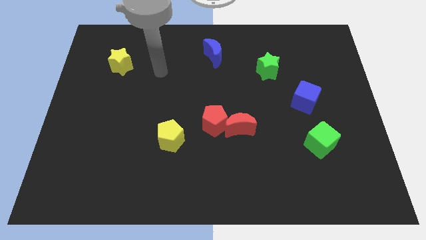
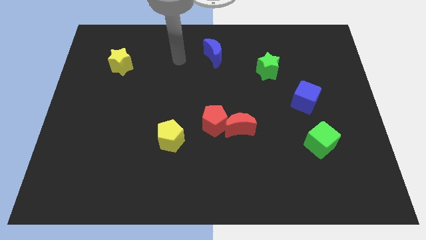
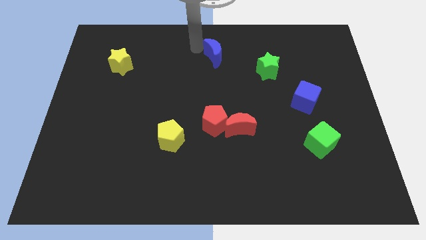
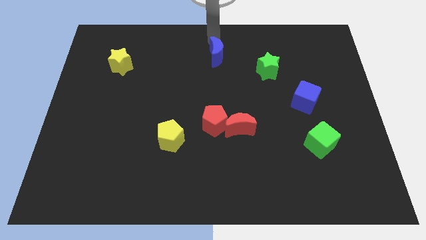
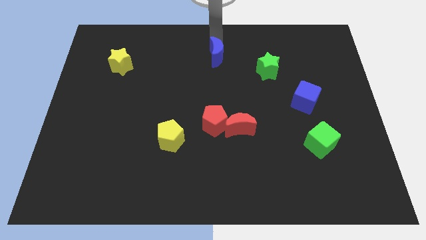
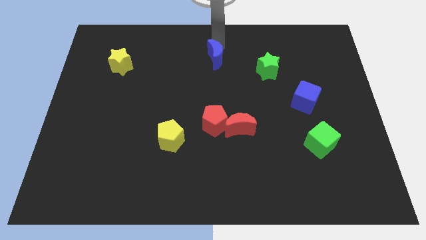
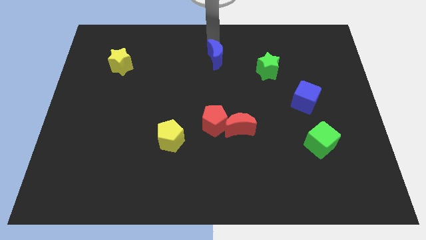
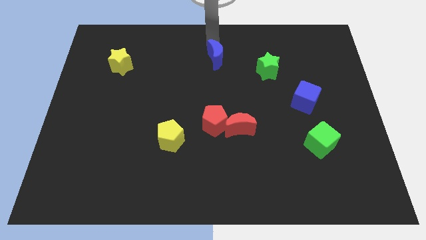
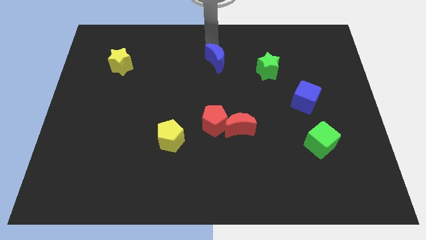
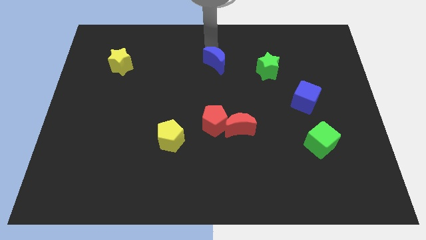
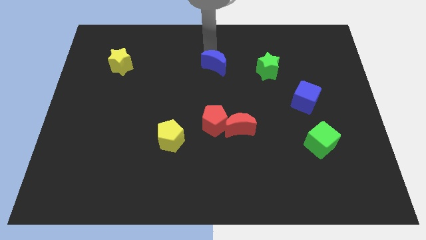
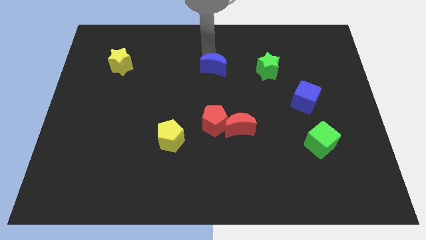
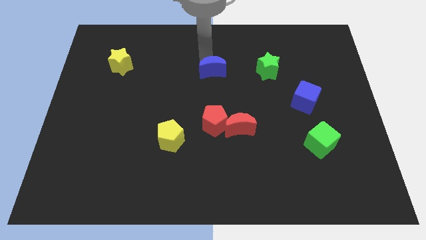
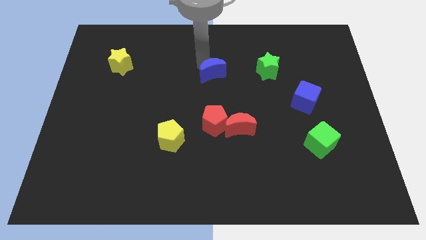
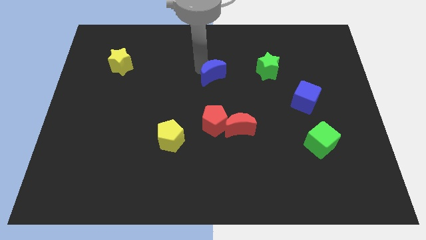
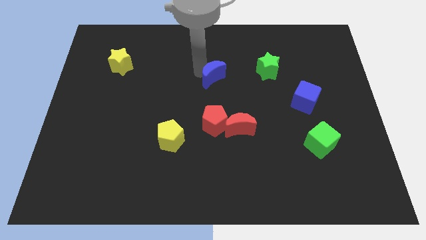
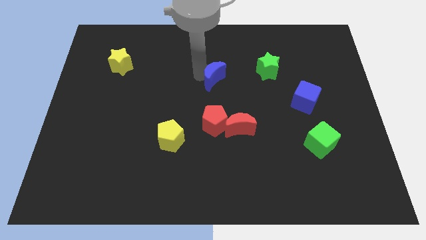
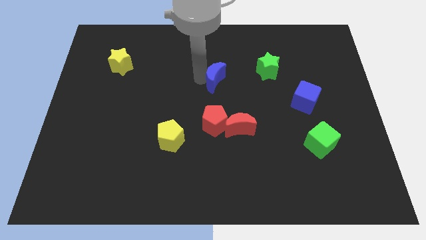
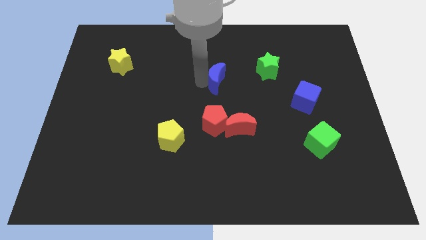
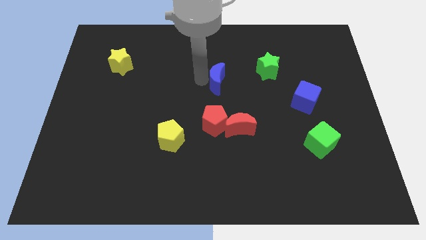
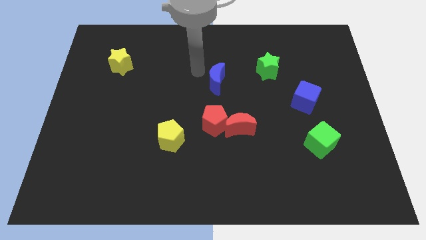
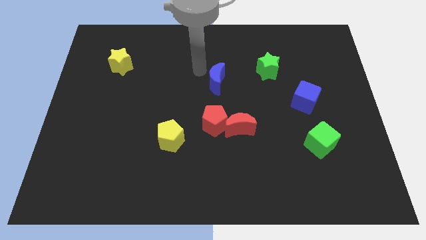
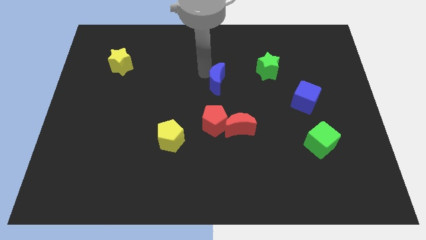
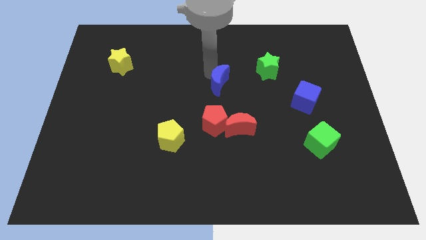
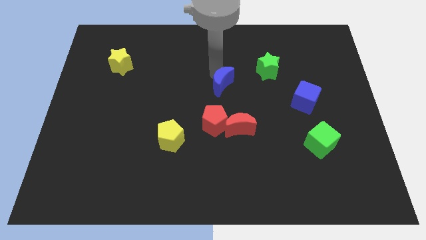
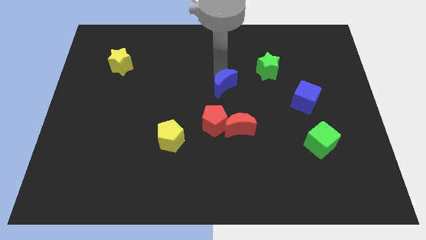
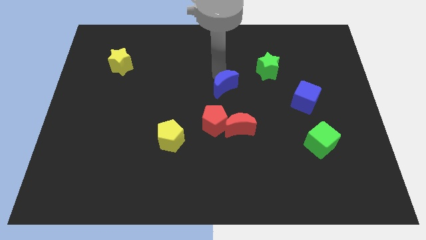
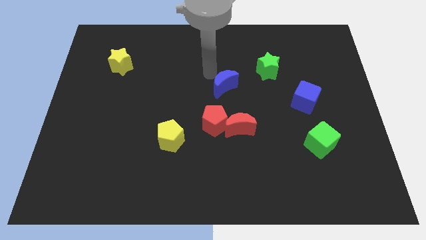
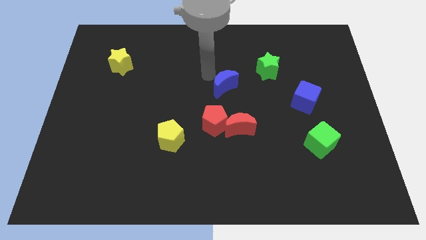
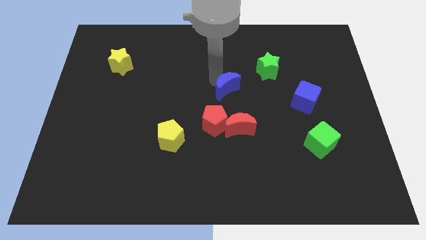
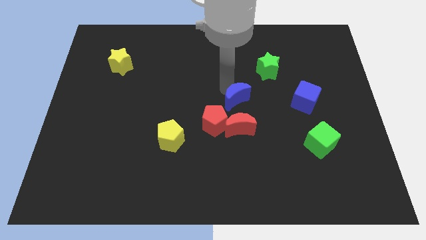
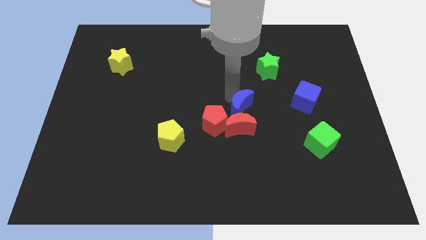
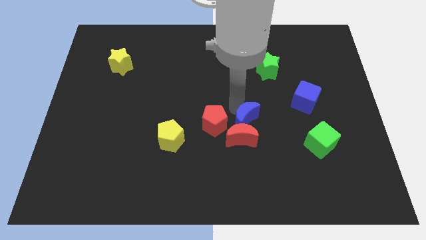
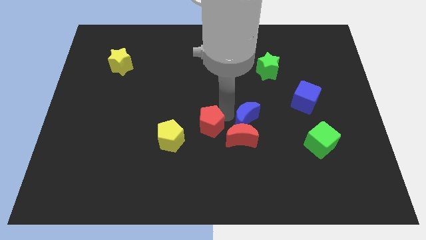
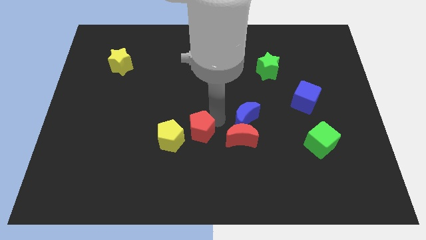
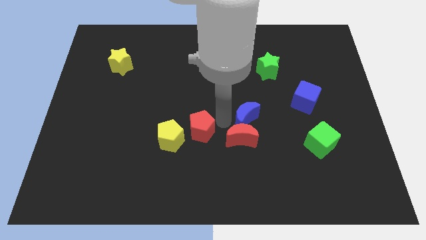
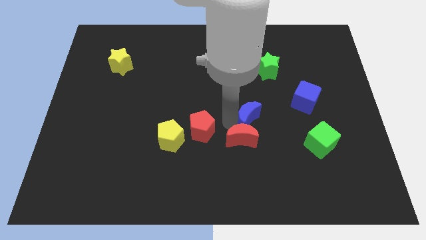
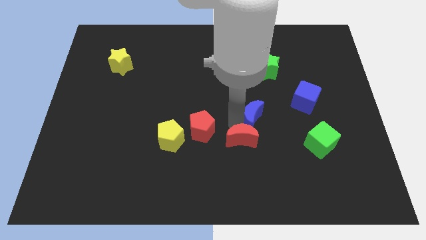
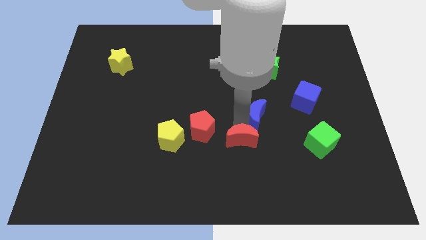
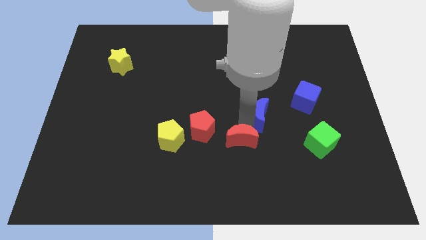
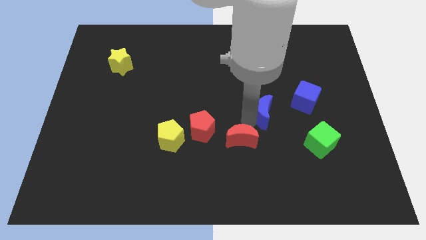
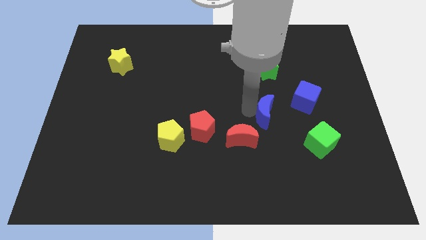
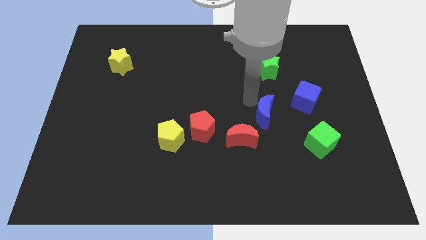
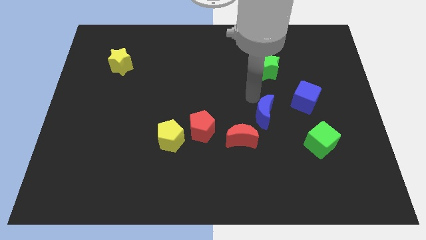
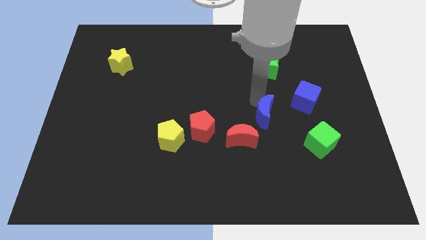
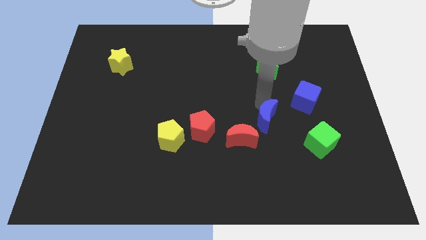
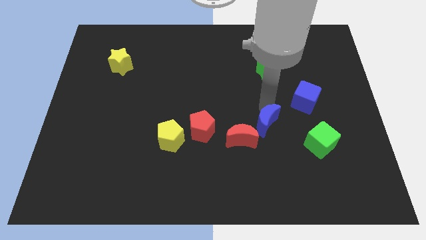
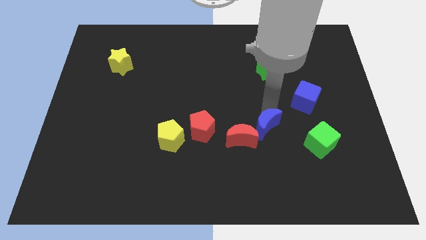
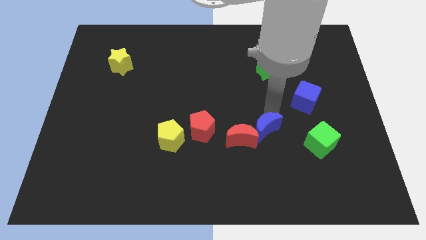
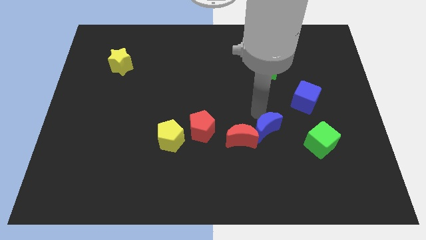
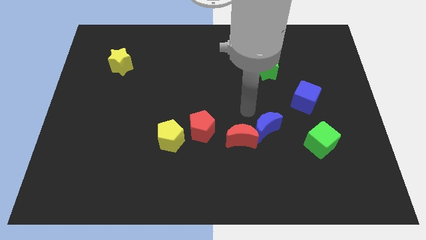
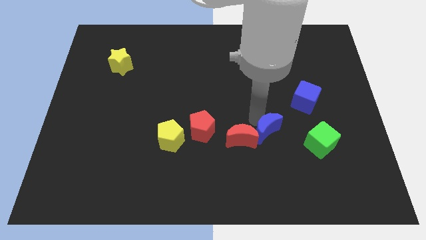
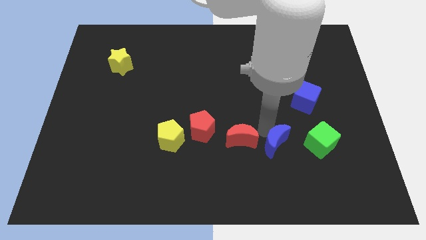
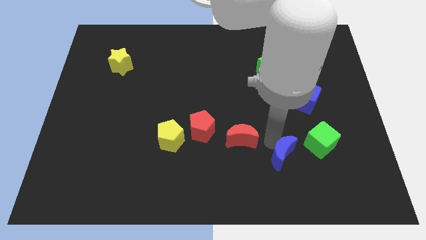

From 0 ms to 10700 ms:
push the blue moon to the bottom left side of the green cube

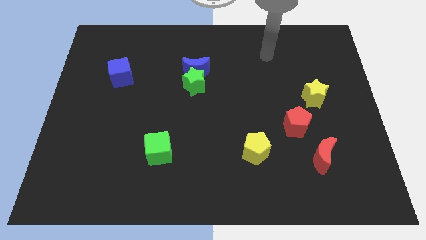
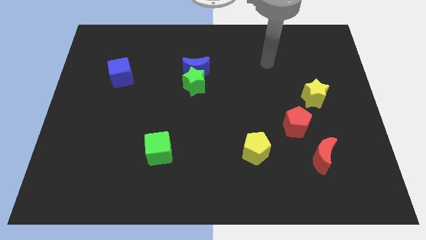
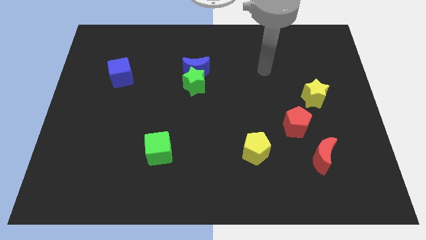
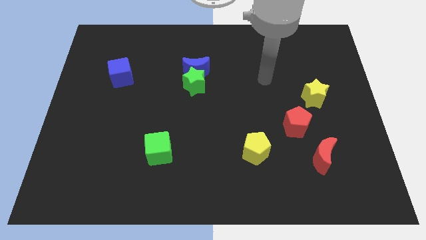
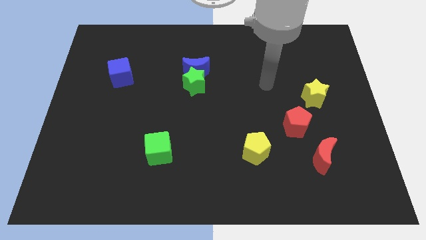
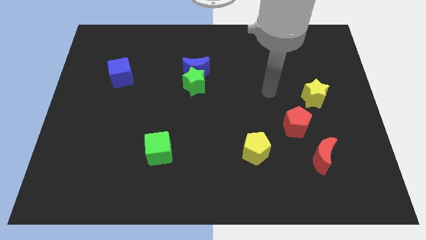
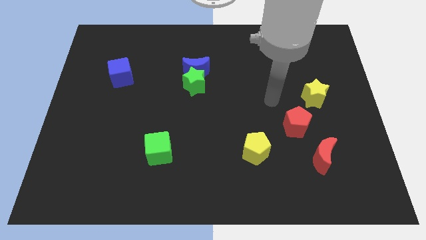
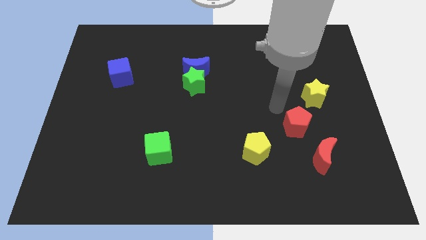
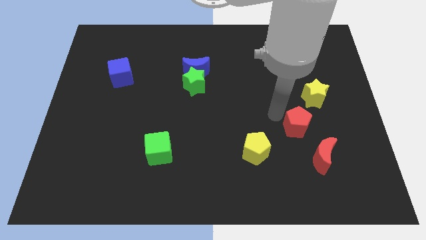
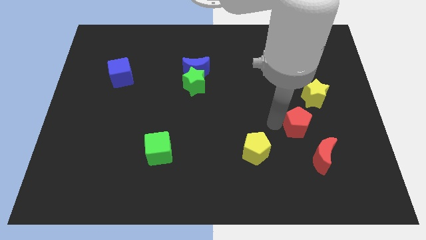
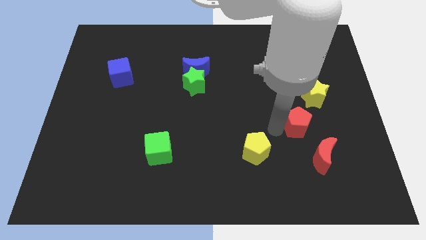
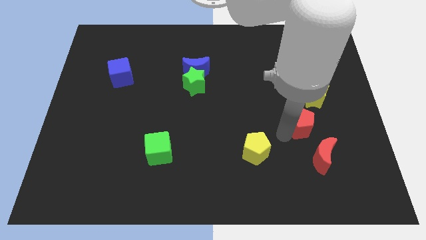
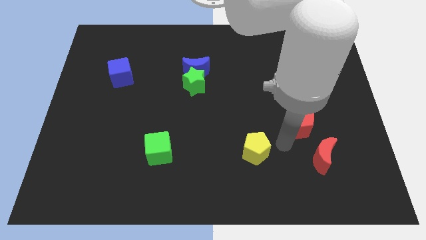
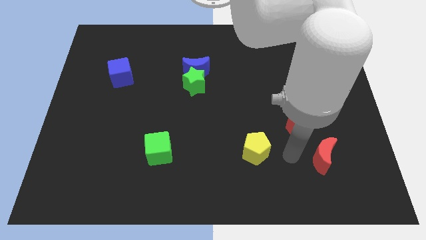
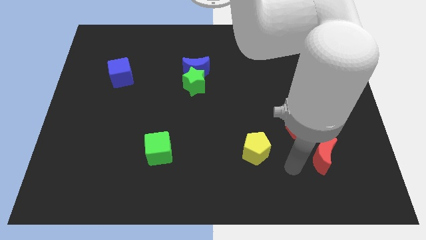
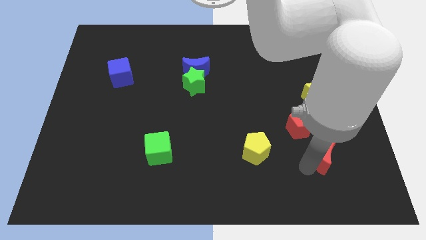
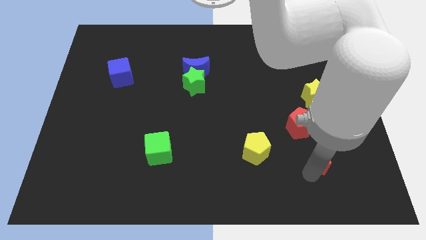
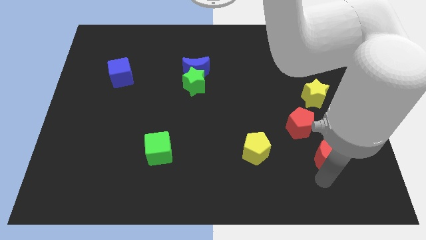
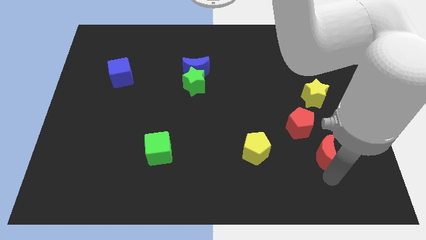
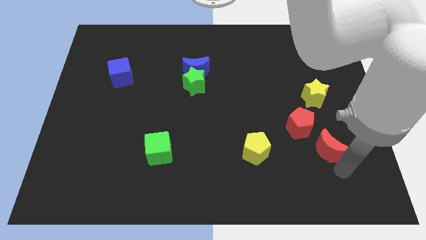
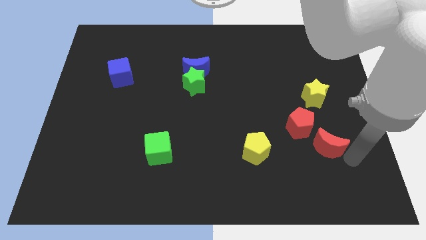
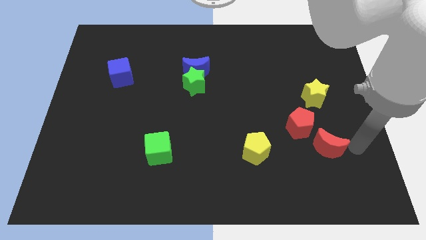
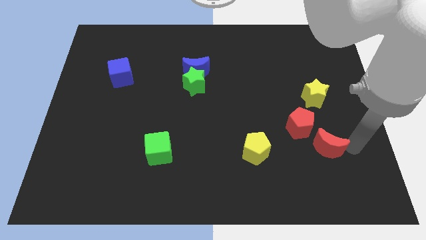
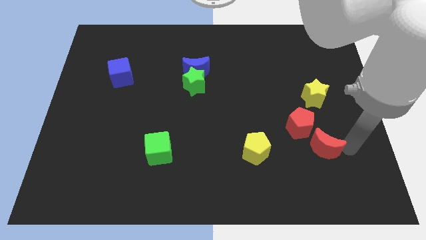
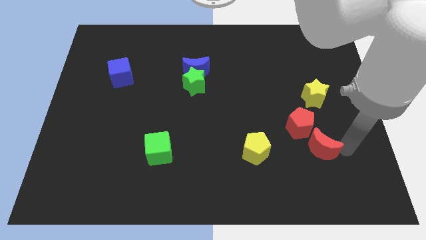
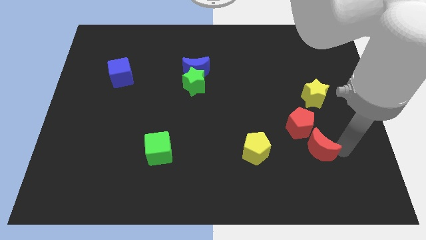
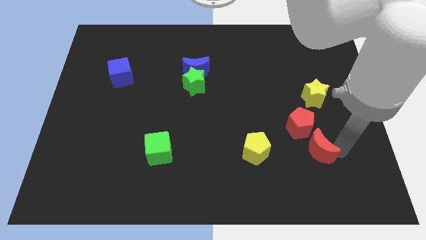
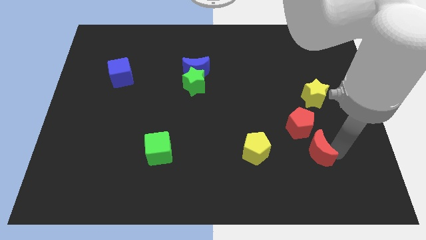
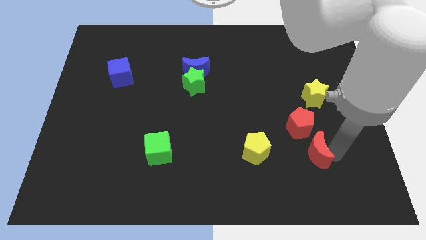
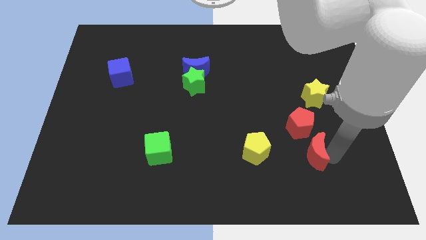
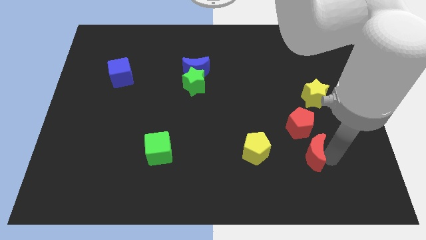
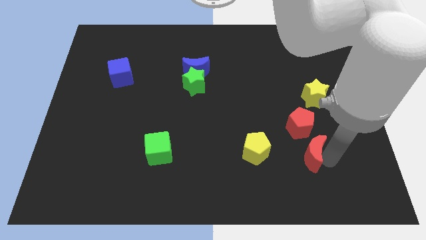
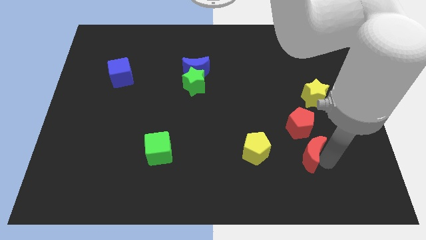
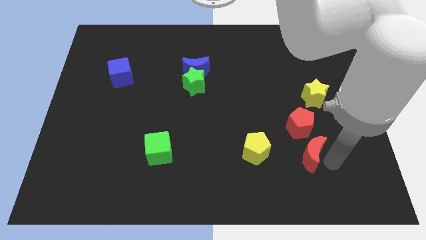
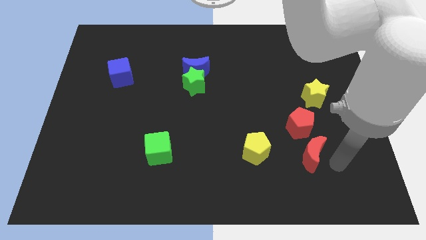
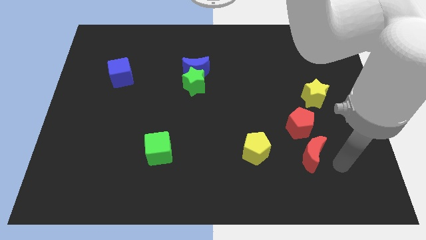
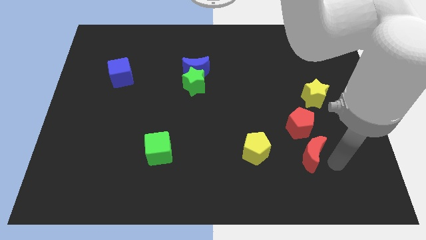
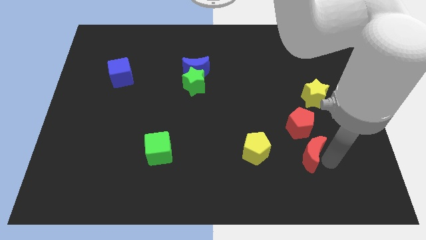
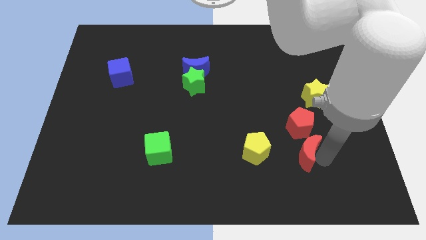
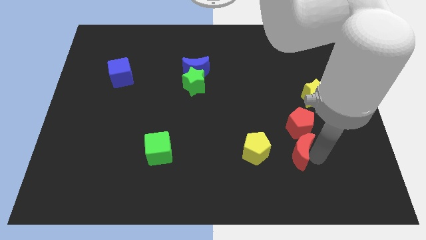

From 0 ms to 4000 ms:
slide the red moon to the bottom left of the red pentagon
